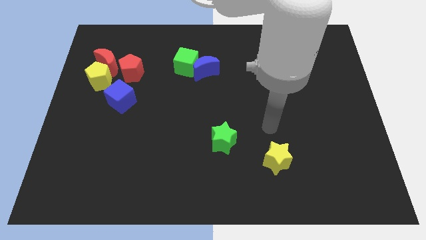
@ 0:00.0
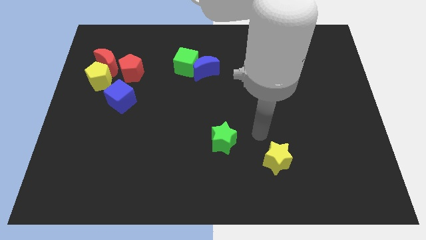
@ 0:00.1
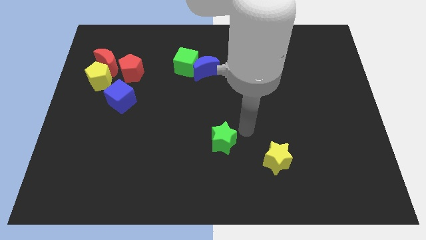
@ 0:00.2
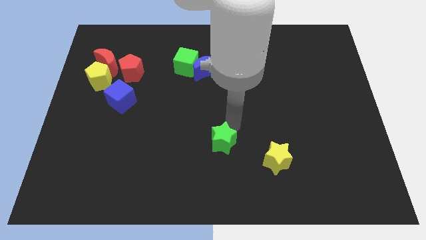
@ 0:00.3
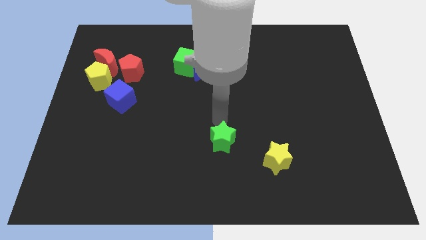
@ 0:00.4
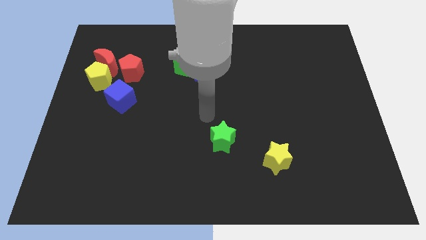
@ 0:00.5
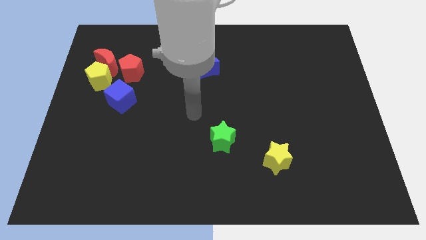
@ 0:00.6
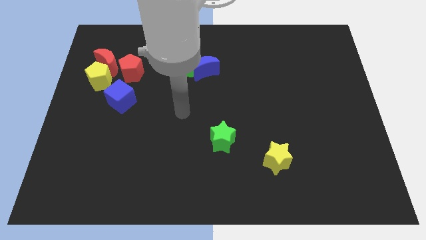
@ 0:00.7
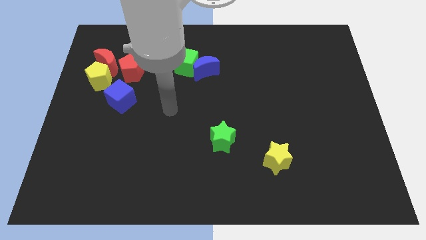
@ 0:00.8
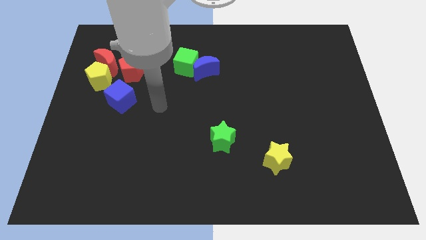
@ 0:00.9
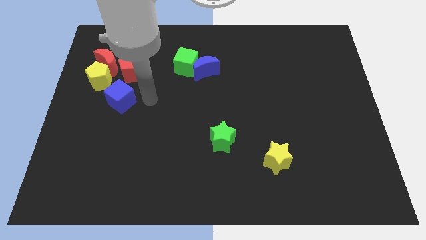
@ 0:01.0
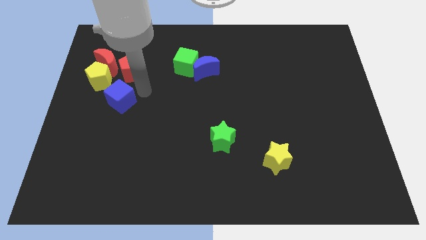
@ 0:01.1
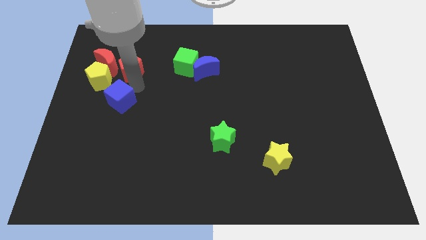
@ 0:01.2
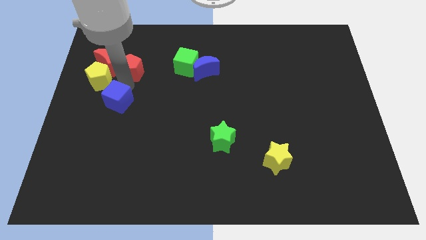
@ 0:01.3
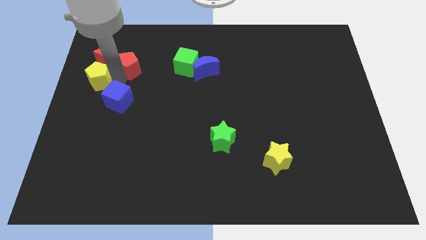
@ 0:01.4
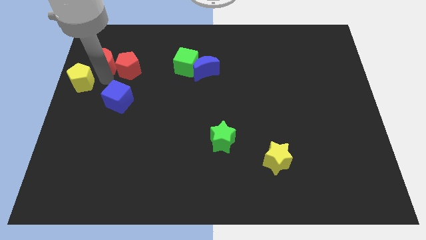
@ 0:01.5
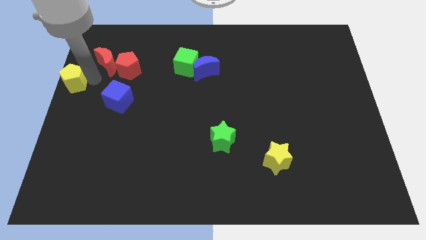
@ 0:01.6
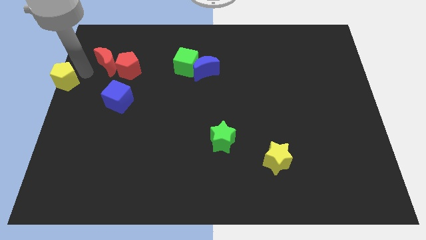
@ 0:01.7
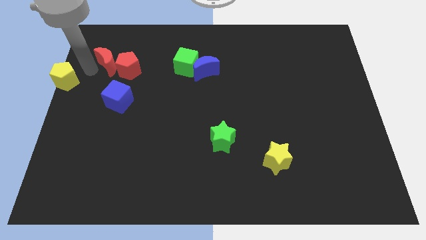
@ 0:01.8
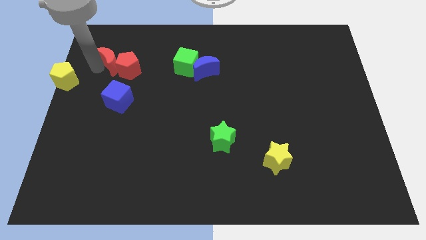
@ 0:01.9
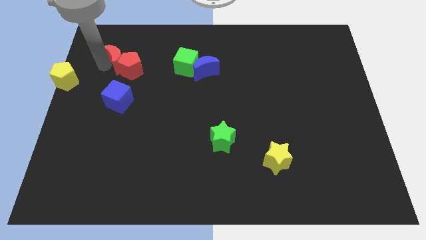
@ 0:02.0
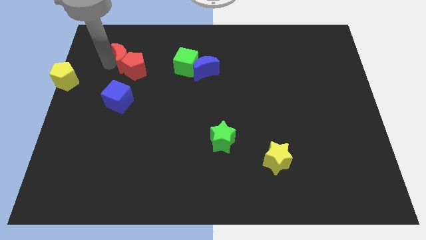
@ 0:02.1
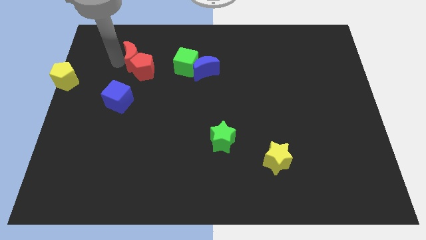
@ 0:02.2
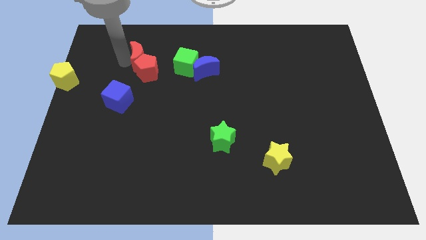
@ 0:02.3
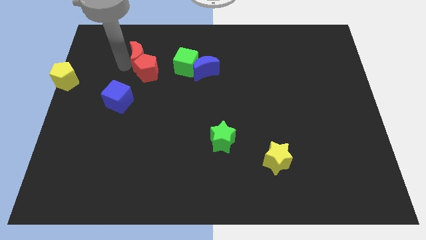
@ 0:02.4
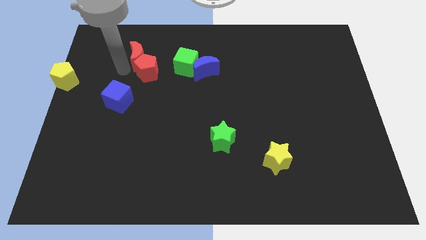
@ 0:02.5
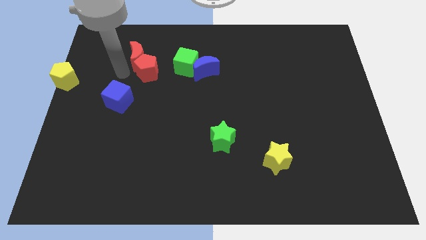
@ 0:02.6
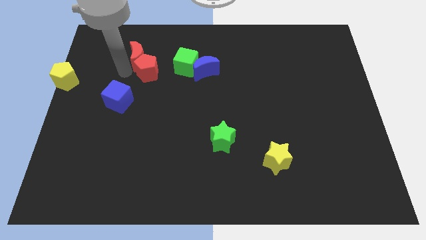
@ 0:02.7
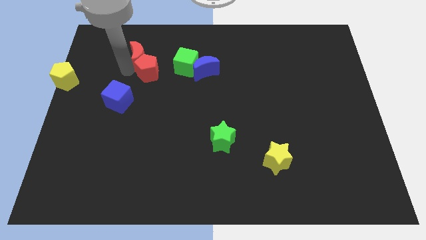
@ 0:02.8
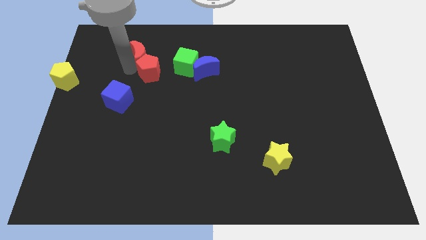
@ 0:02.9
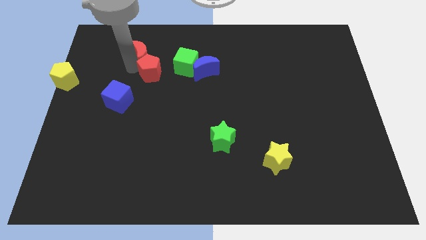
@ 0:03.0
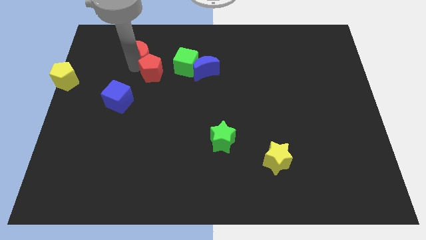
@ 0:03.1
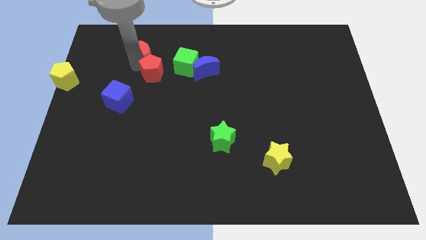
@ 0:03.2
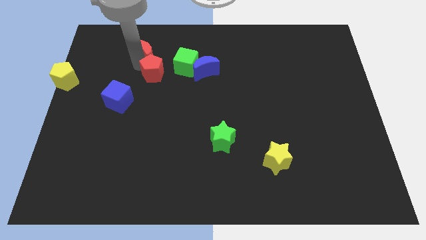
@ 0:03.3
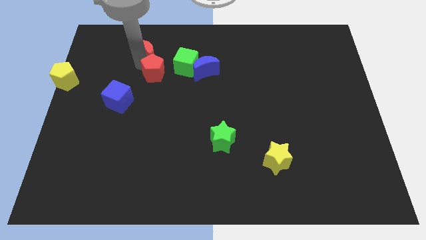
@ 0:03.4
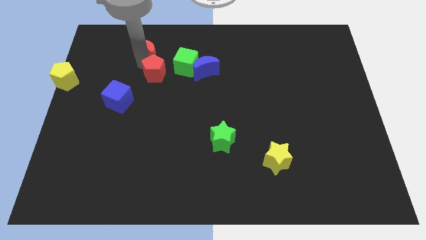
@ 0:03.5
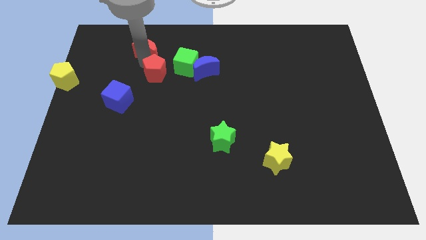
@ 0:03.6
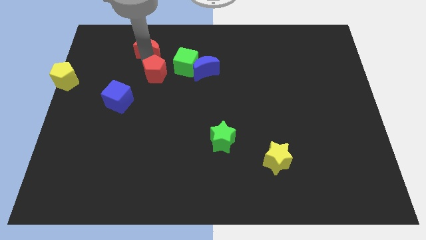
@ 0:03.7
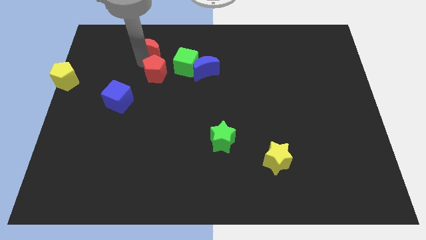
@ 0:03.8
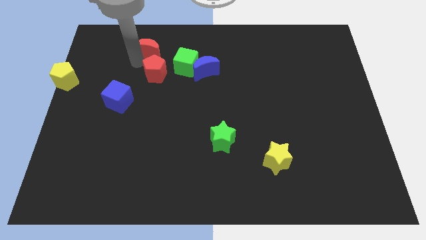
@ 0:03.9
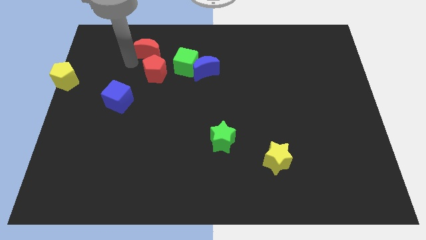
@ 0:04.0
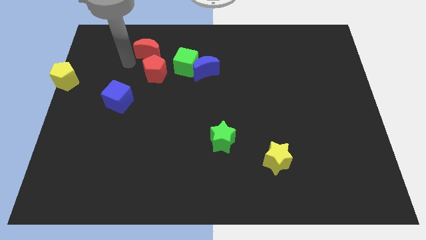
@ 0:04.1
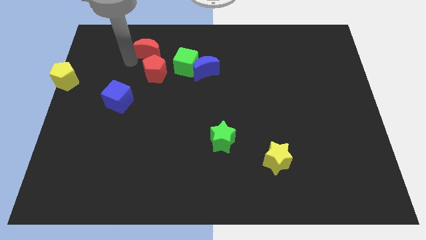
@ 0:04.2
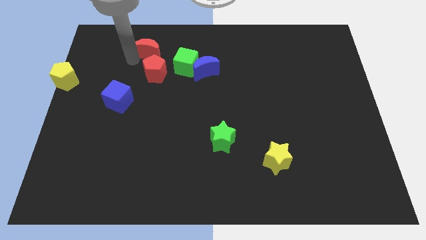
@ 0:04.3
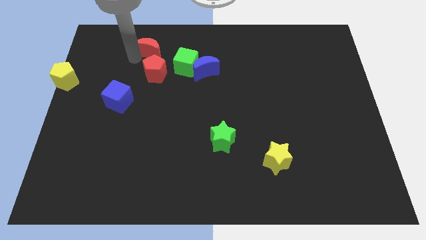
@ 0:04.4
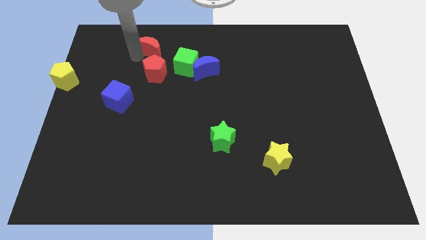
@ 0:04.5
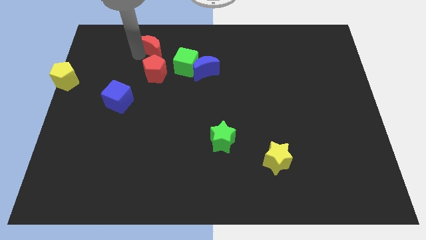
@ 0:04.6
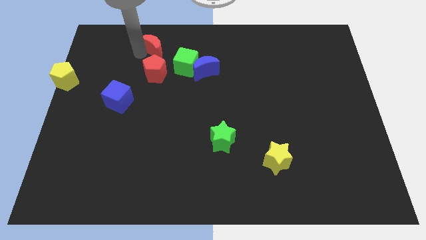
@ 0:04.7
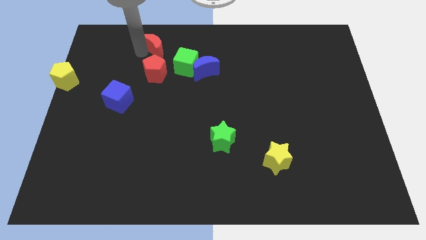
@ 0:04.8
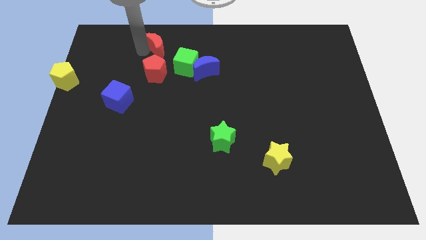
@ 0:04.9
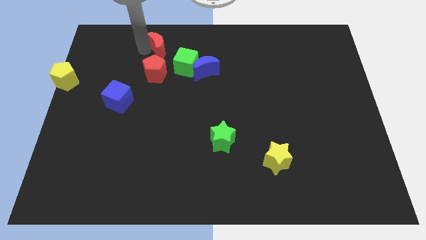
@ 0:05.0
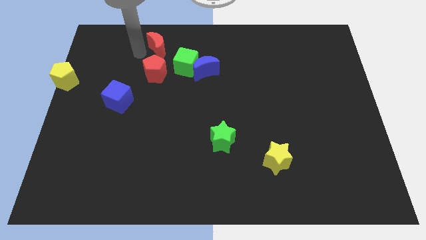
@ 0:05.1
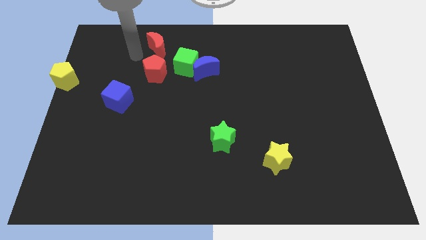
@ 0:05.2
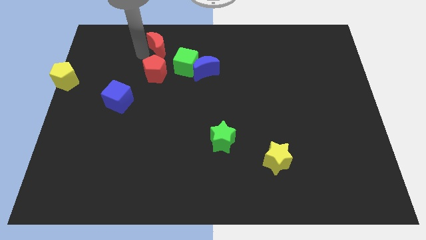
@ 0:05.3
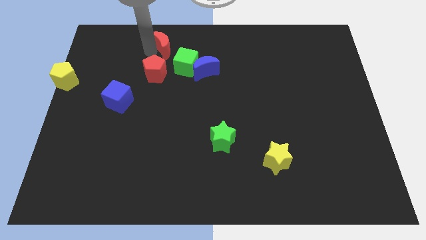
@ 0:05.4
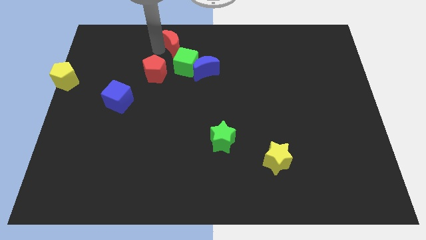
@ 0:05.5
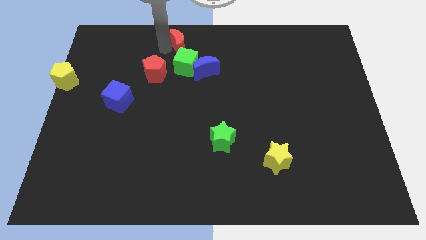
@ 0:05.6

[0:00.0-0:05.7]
slide the red moon to the top side
